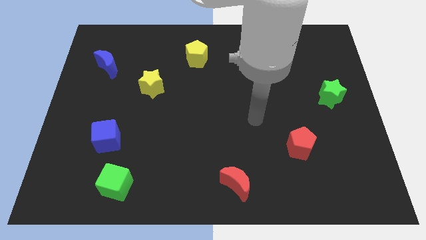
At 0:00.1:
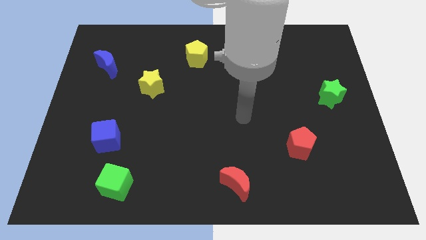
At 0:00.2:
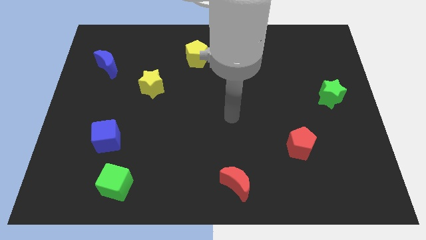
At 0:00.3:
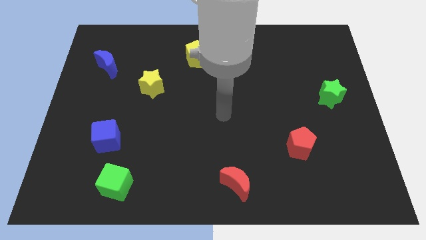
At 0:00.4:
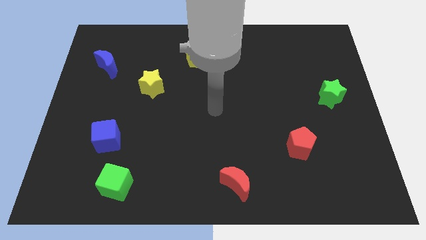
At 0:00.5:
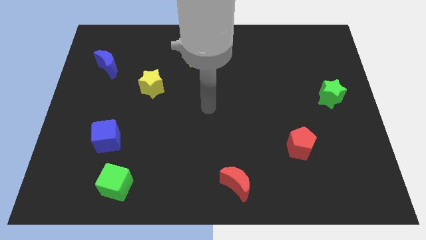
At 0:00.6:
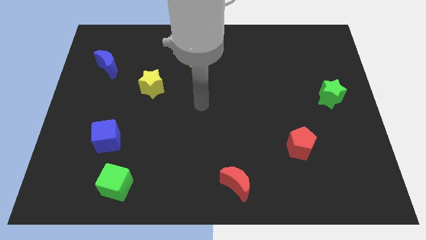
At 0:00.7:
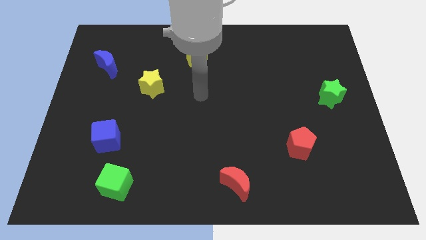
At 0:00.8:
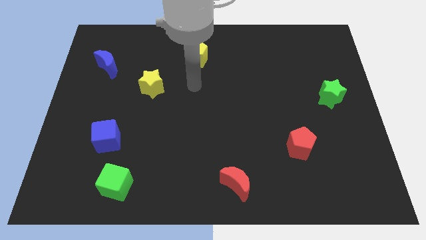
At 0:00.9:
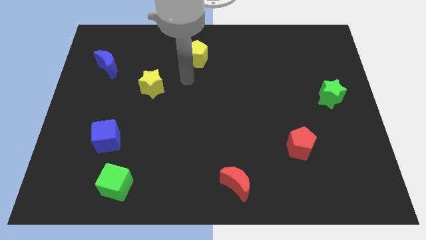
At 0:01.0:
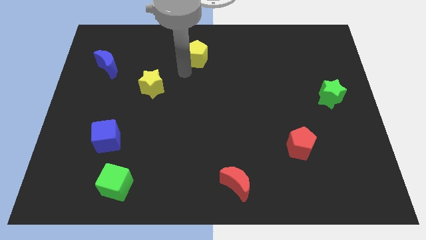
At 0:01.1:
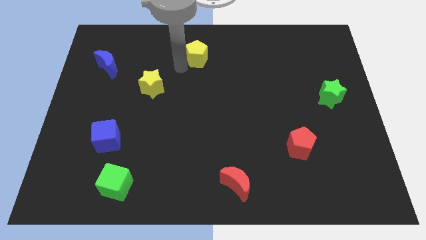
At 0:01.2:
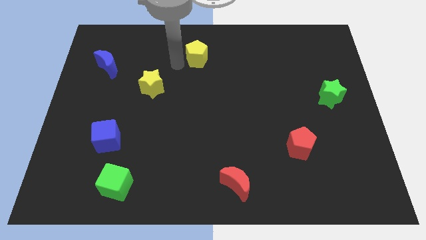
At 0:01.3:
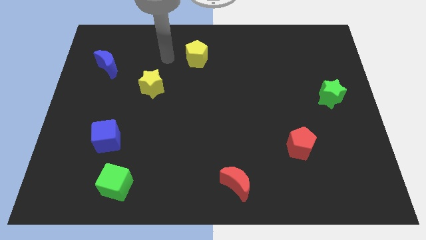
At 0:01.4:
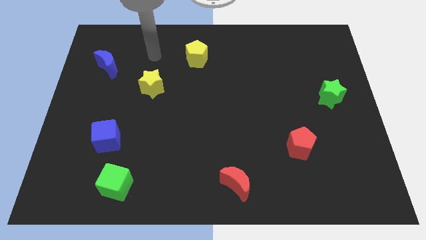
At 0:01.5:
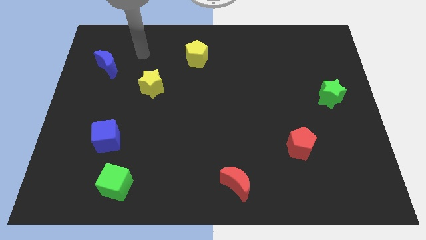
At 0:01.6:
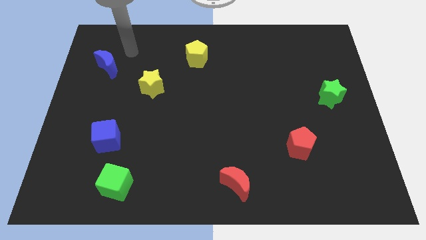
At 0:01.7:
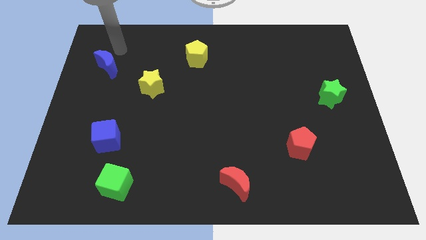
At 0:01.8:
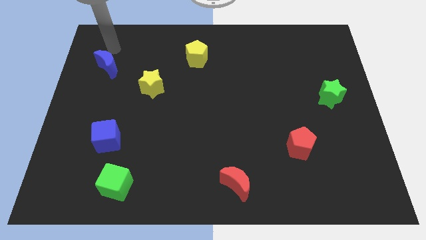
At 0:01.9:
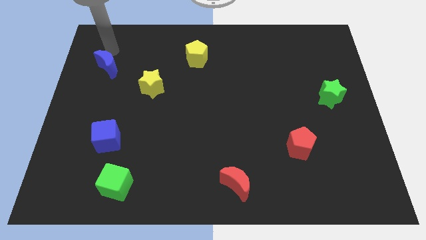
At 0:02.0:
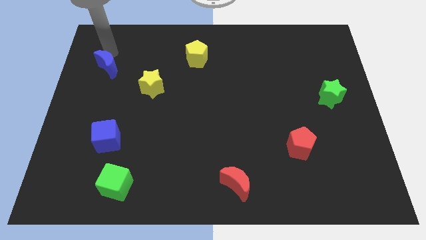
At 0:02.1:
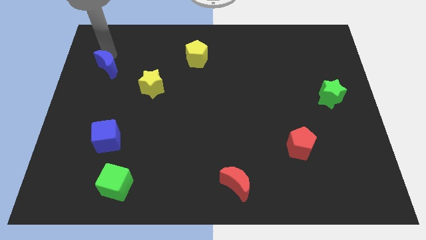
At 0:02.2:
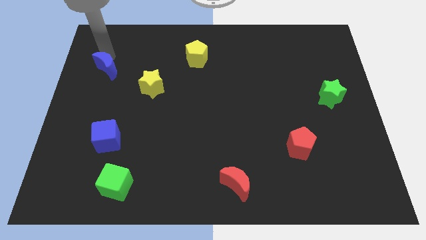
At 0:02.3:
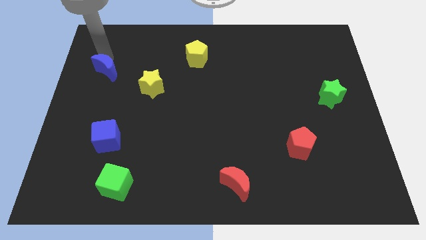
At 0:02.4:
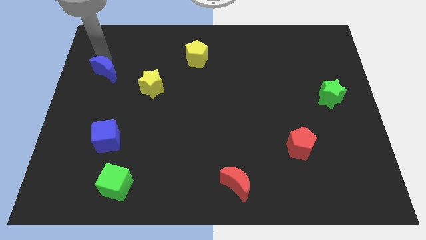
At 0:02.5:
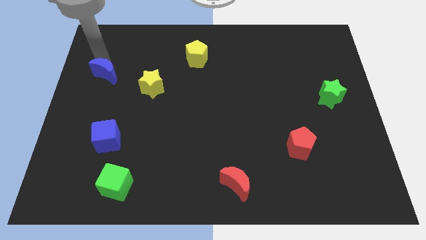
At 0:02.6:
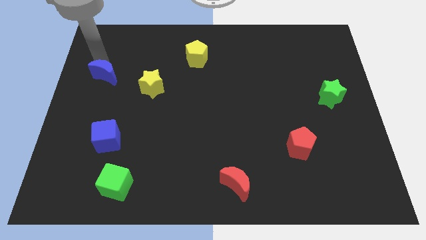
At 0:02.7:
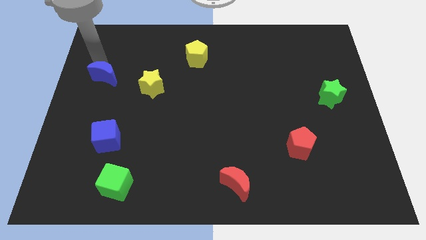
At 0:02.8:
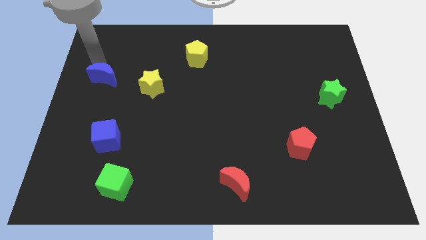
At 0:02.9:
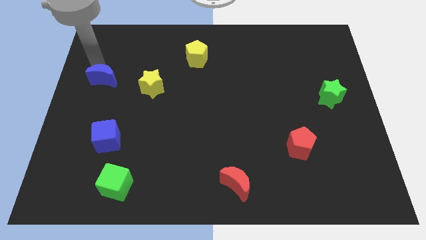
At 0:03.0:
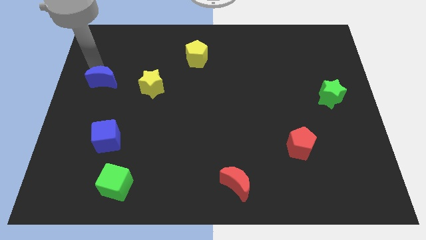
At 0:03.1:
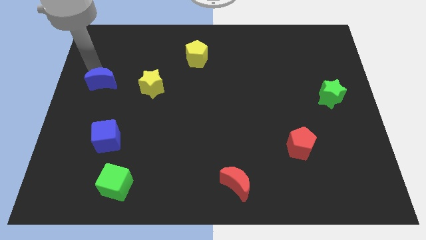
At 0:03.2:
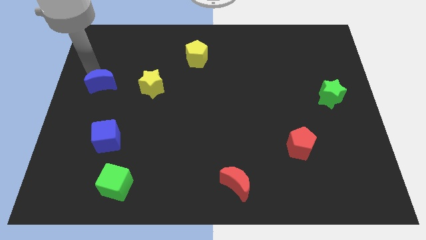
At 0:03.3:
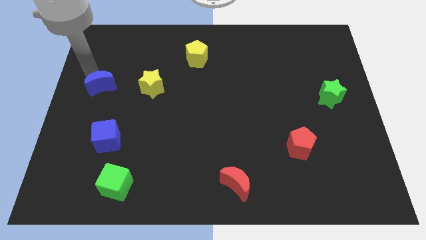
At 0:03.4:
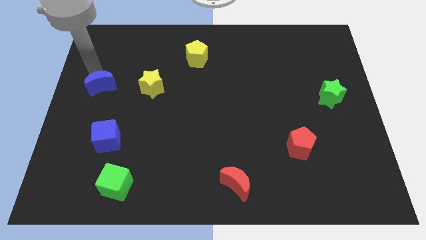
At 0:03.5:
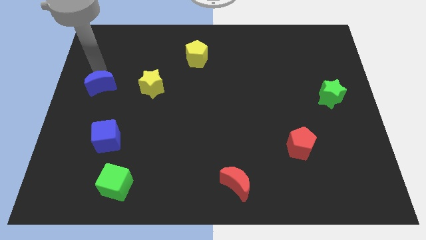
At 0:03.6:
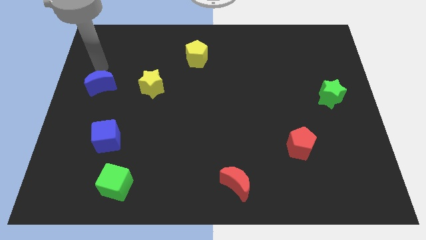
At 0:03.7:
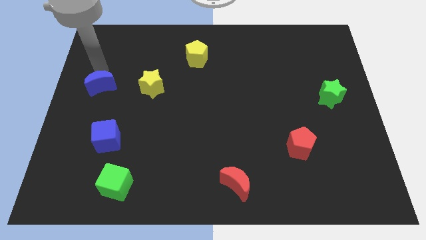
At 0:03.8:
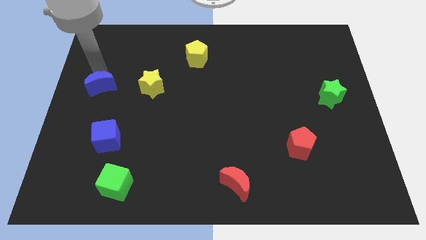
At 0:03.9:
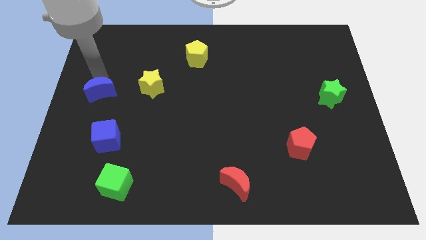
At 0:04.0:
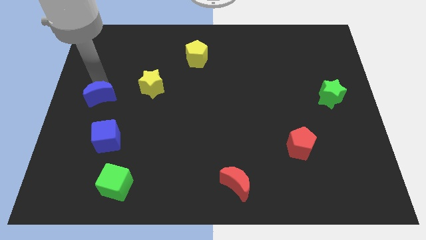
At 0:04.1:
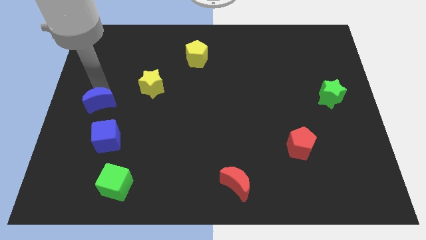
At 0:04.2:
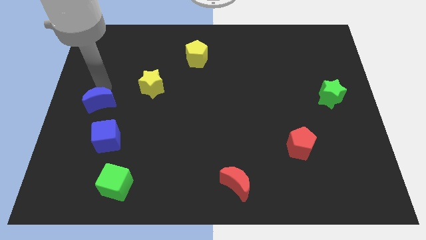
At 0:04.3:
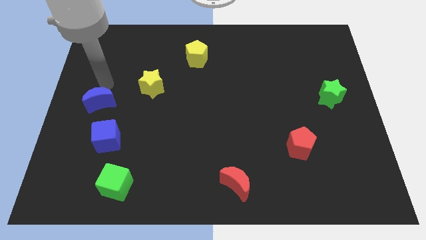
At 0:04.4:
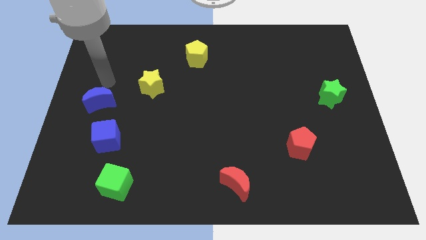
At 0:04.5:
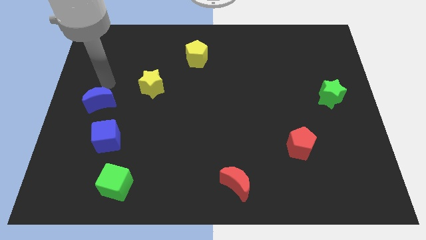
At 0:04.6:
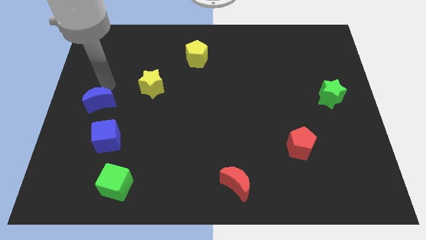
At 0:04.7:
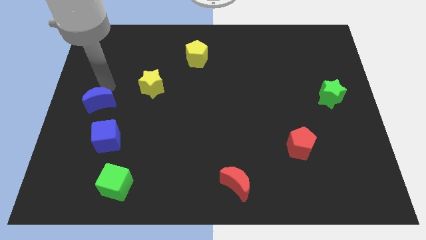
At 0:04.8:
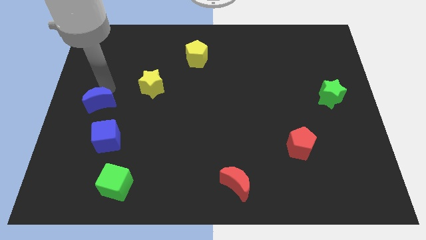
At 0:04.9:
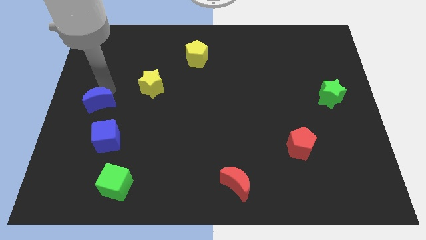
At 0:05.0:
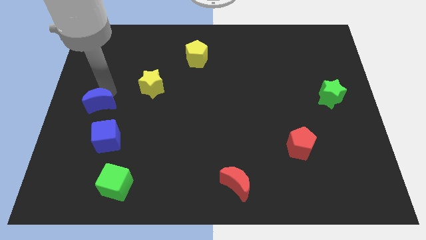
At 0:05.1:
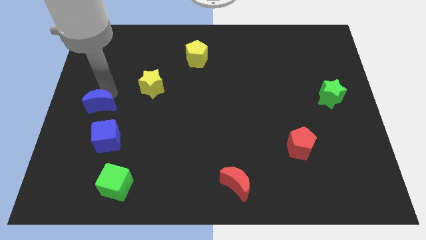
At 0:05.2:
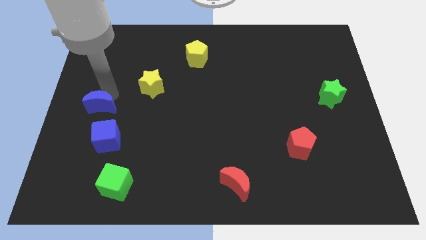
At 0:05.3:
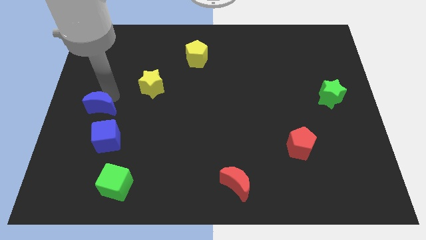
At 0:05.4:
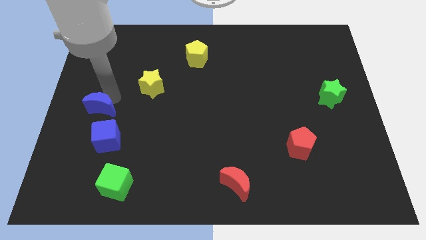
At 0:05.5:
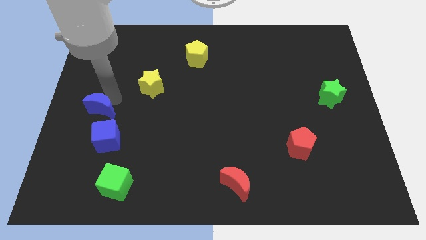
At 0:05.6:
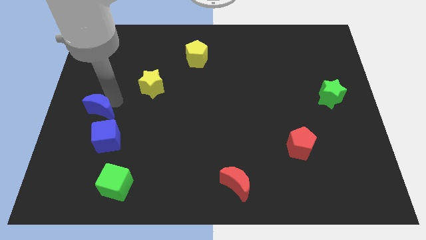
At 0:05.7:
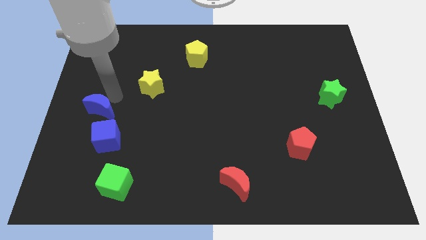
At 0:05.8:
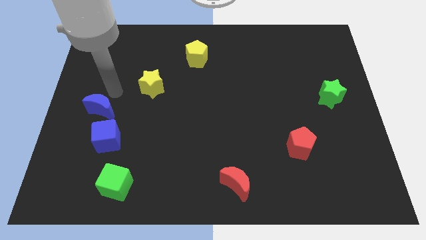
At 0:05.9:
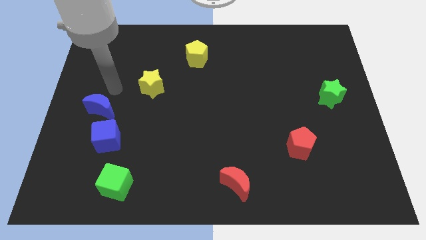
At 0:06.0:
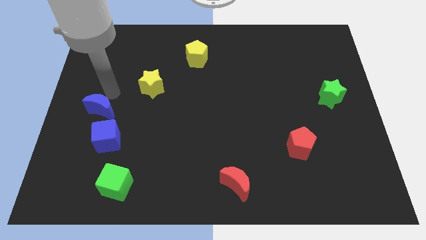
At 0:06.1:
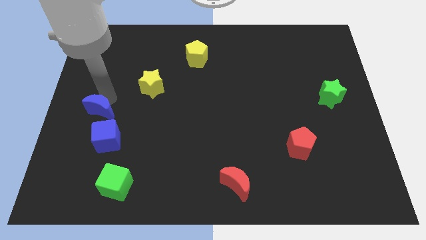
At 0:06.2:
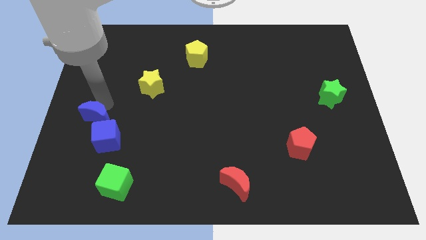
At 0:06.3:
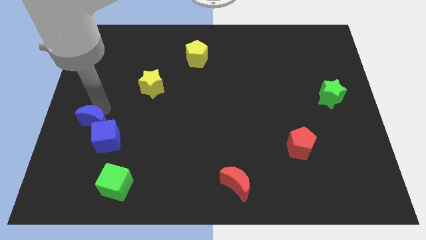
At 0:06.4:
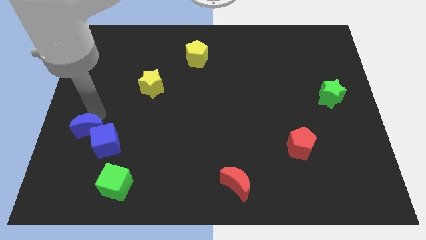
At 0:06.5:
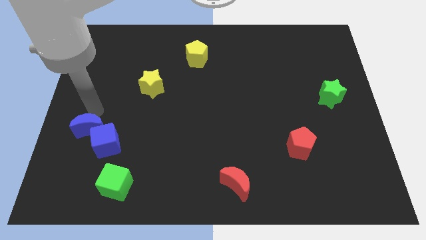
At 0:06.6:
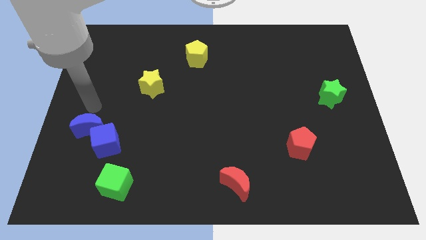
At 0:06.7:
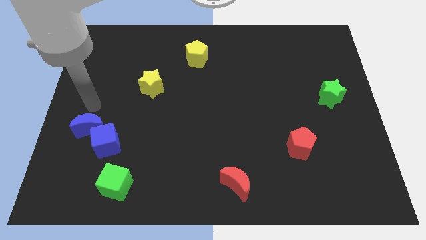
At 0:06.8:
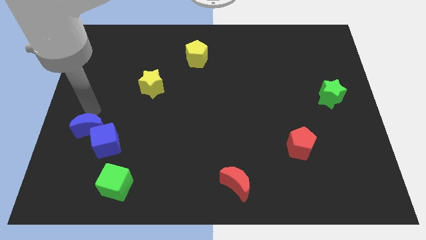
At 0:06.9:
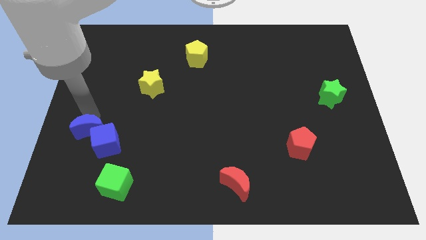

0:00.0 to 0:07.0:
slide the blue moon downwards

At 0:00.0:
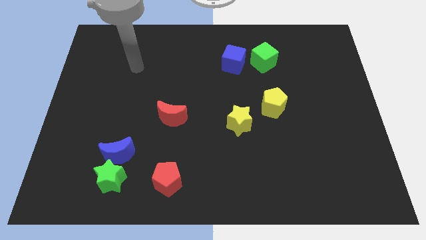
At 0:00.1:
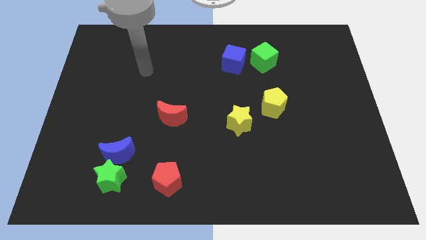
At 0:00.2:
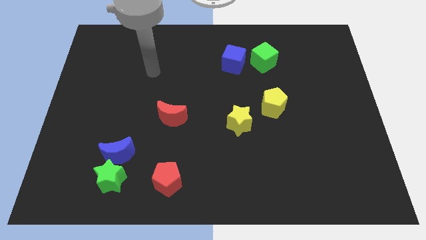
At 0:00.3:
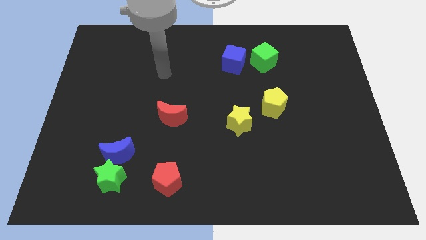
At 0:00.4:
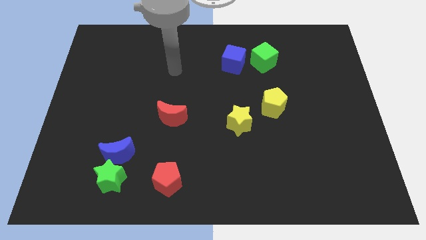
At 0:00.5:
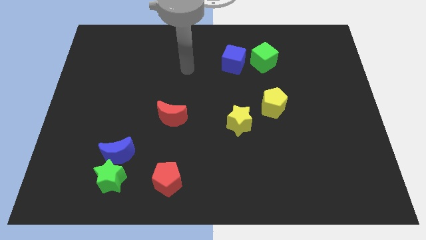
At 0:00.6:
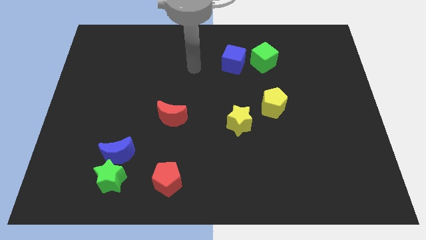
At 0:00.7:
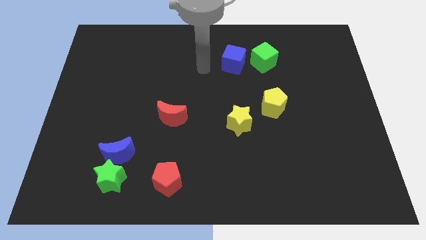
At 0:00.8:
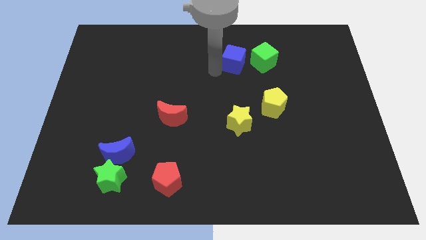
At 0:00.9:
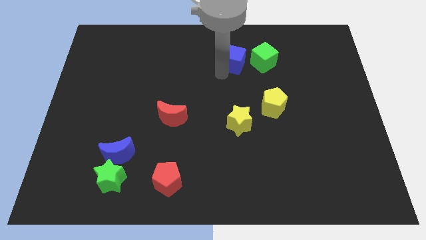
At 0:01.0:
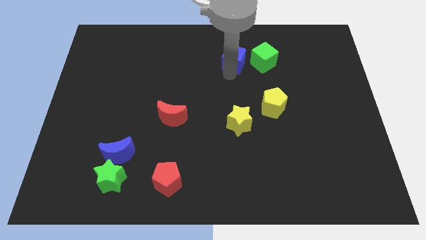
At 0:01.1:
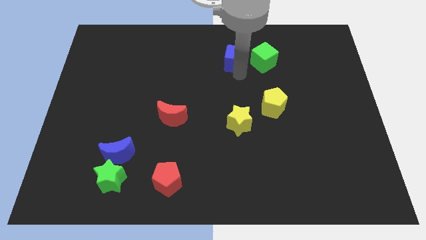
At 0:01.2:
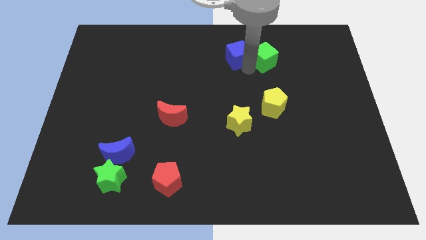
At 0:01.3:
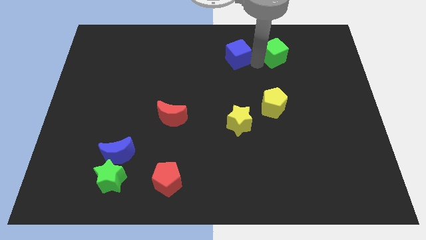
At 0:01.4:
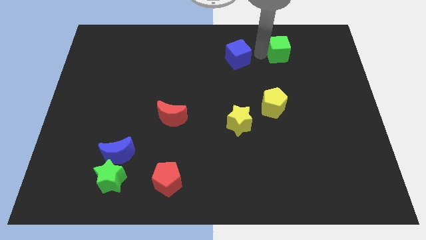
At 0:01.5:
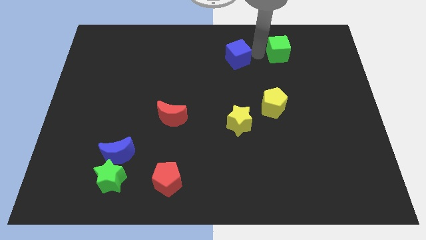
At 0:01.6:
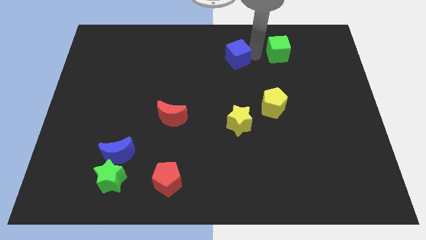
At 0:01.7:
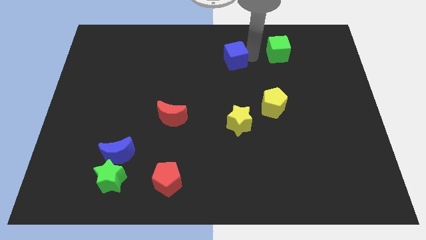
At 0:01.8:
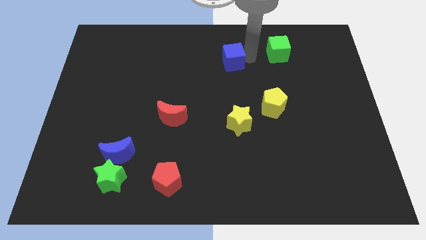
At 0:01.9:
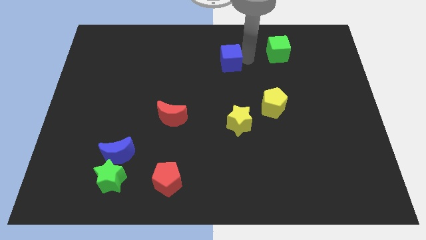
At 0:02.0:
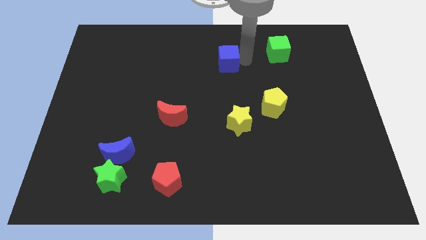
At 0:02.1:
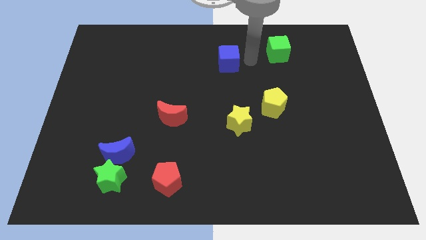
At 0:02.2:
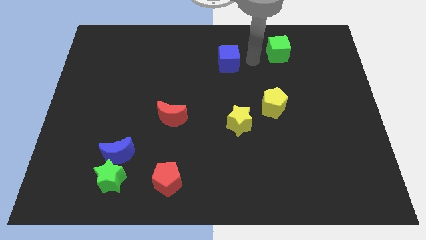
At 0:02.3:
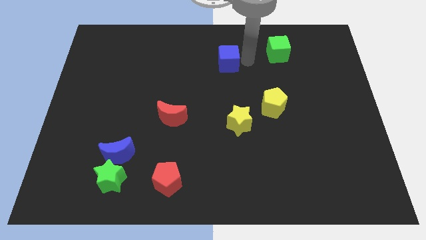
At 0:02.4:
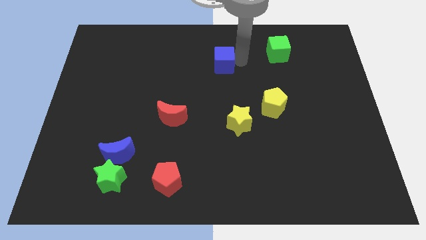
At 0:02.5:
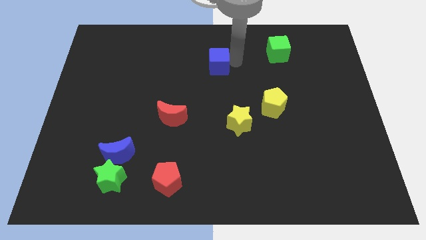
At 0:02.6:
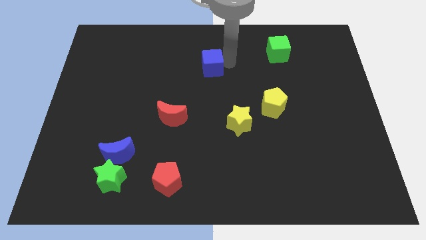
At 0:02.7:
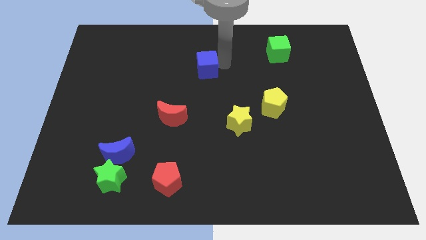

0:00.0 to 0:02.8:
push the blue cube somewhat left
